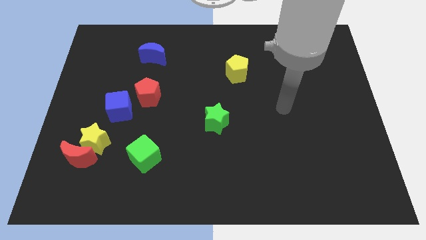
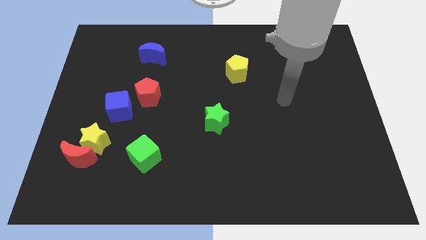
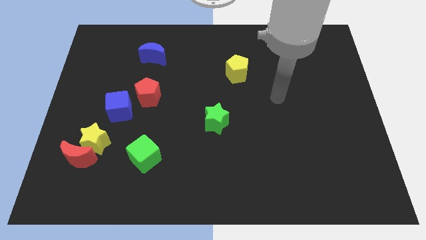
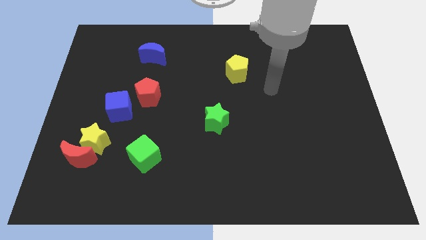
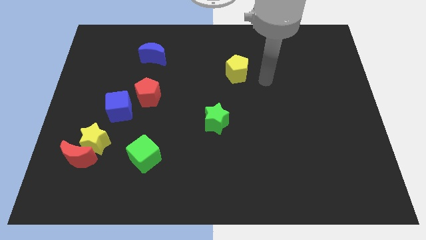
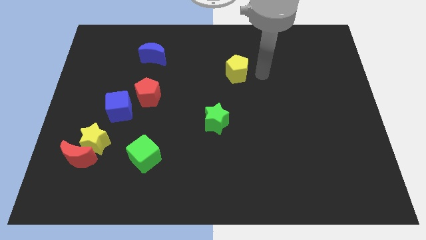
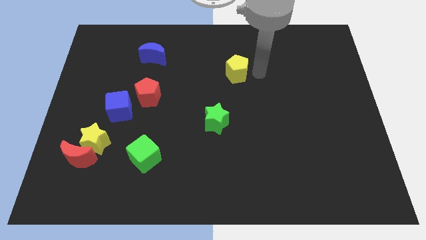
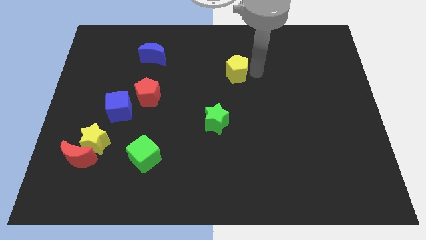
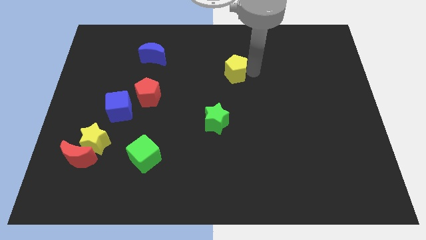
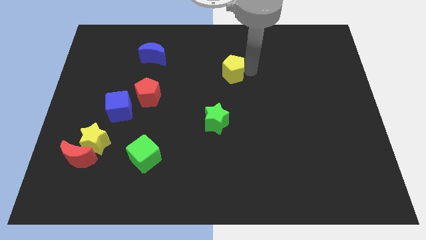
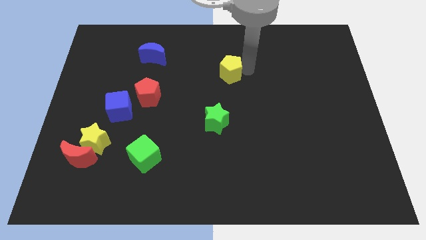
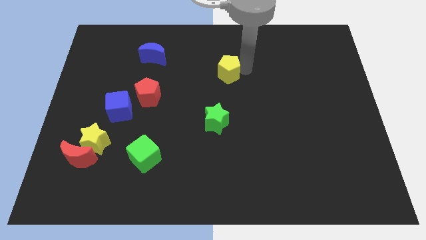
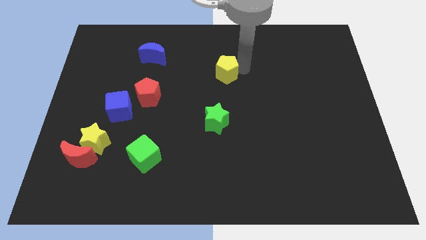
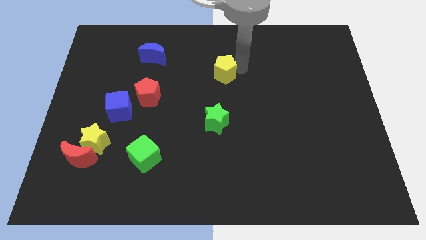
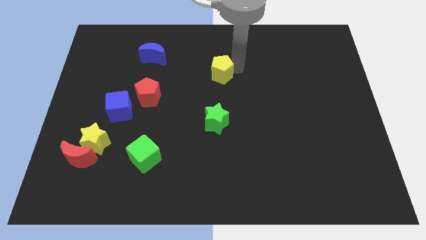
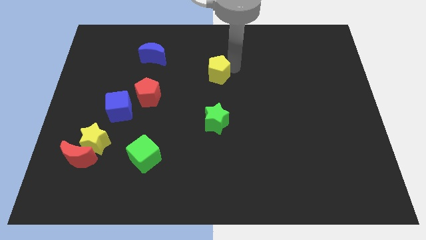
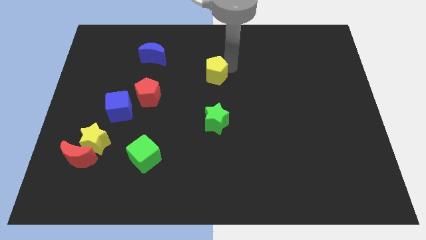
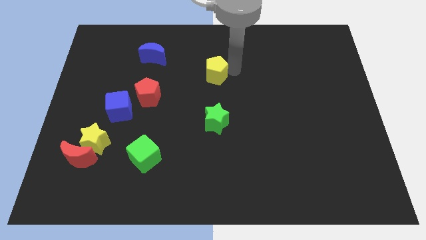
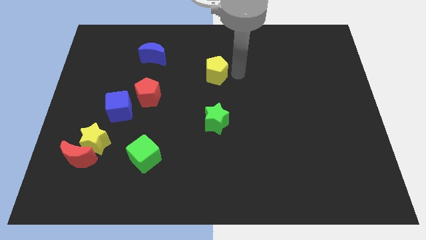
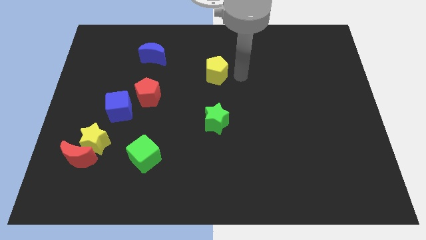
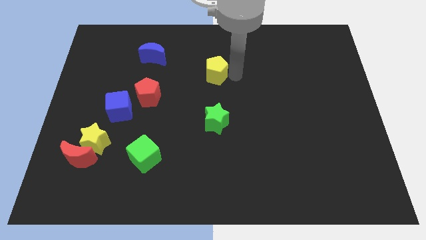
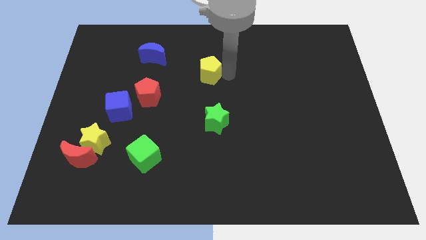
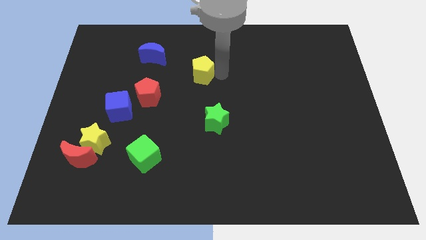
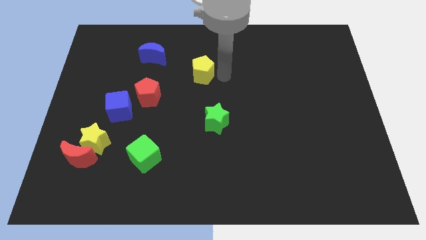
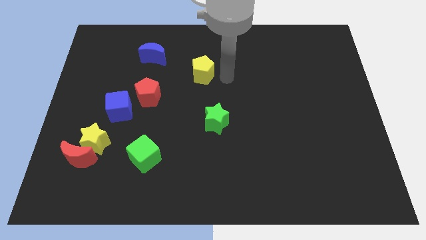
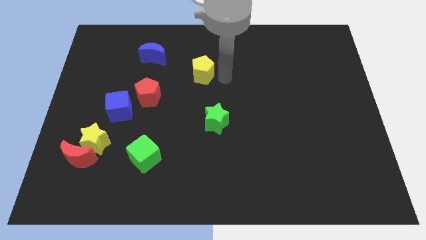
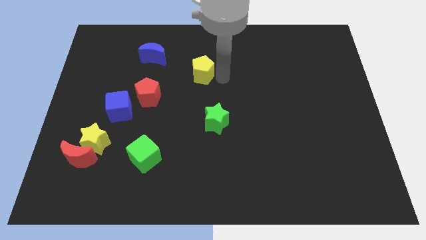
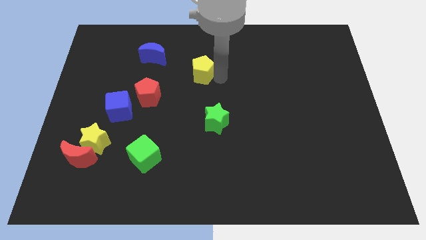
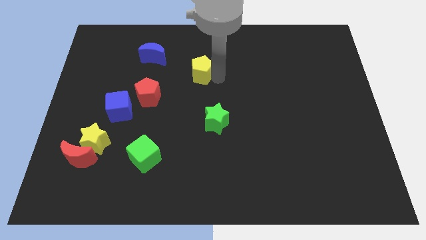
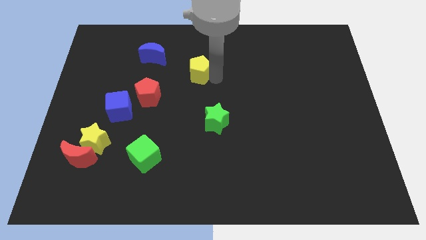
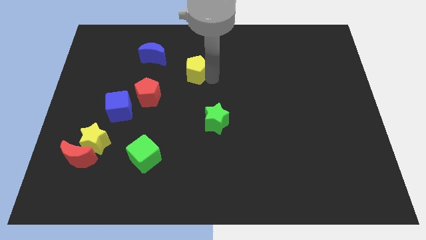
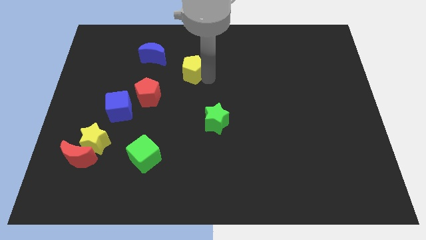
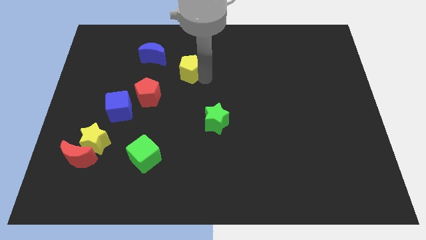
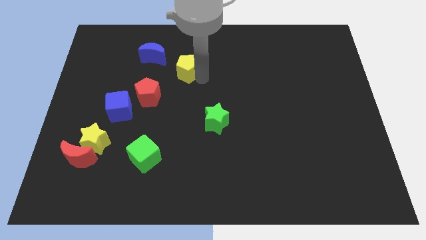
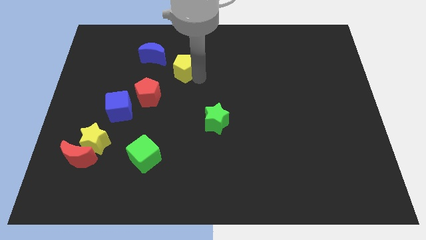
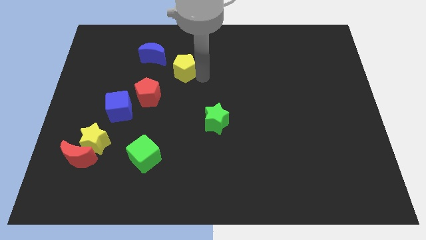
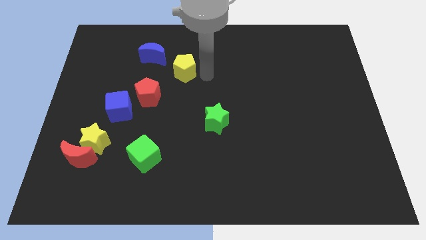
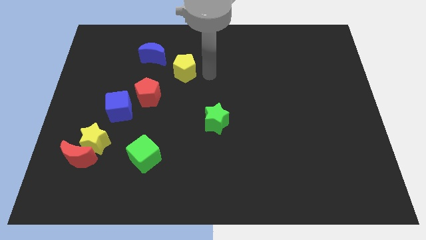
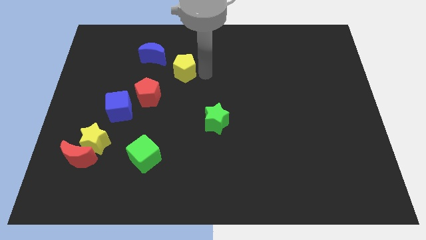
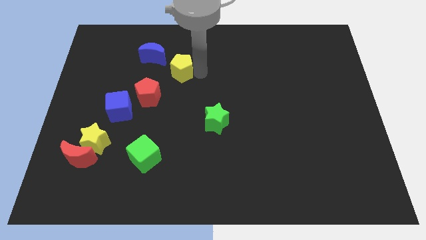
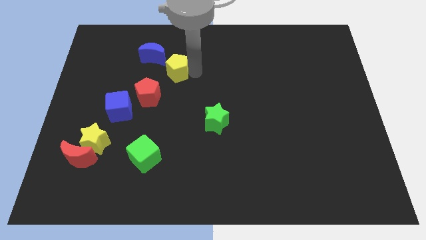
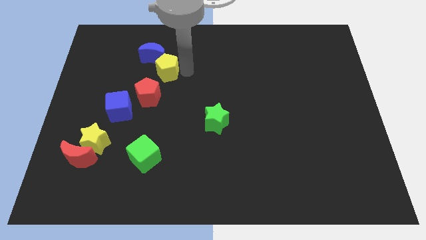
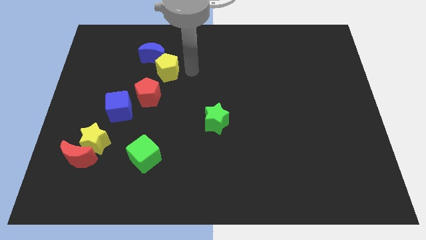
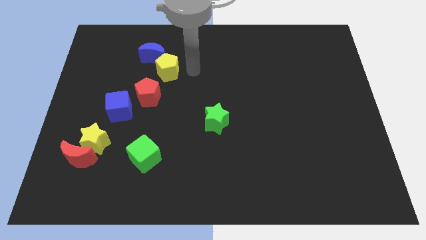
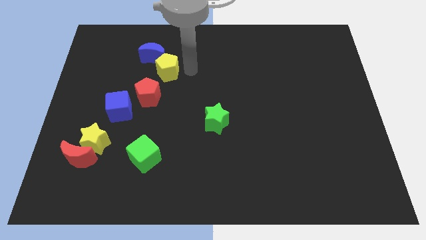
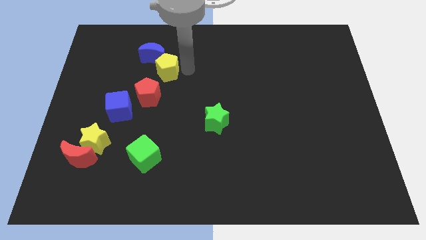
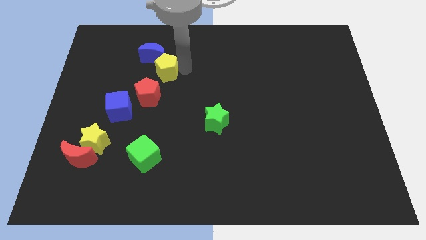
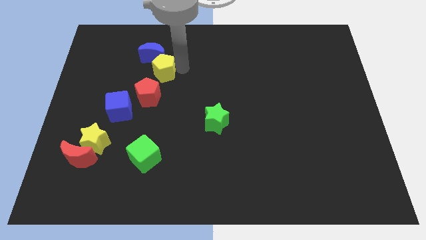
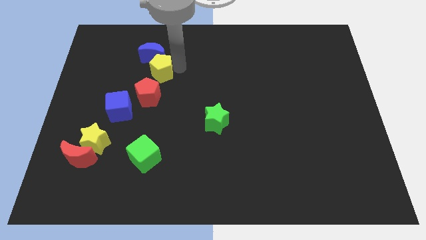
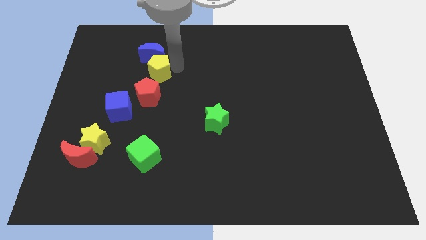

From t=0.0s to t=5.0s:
move the yellow pentagon to the left

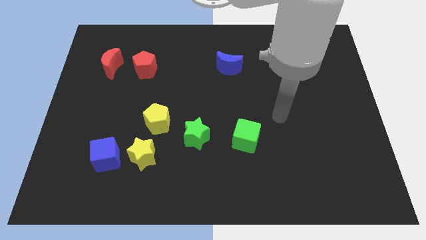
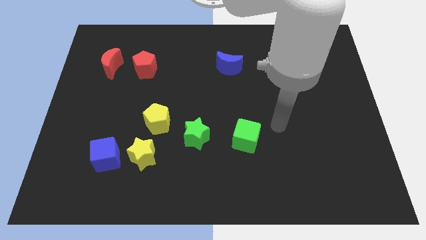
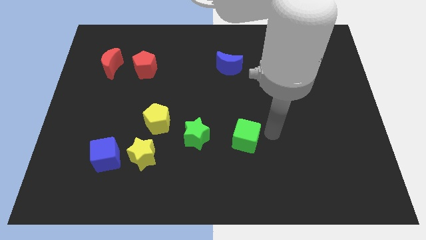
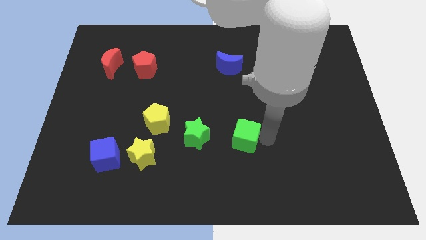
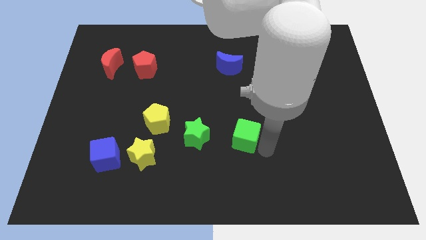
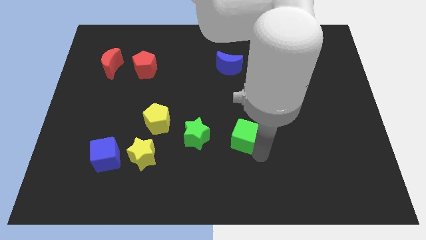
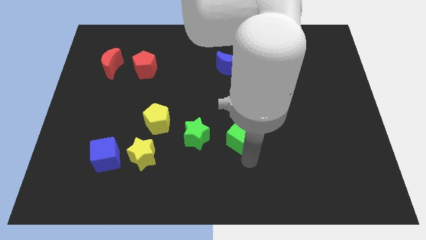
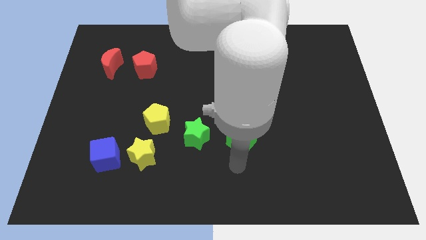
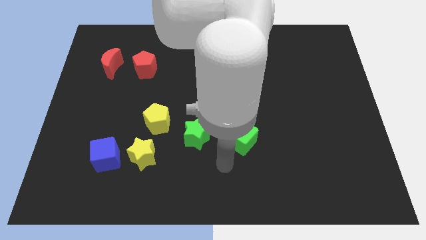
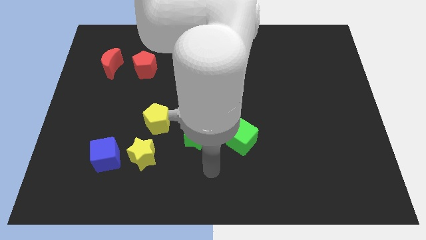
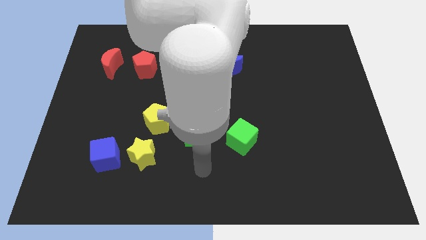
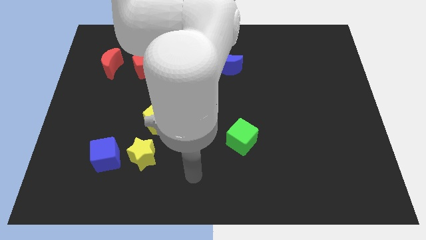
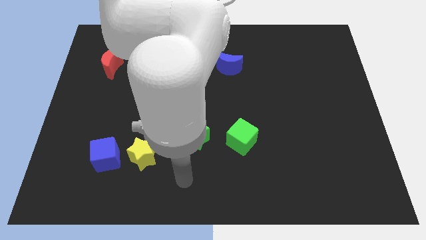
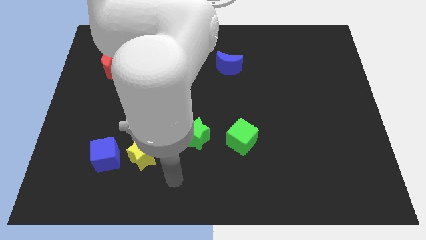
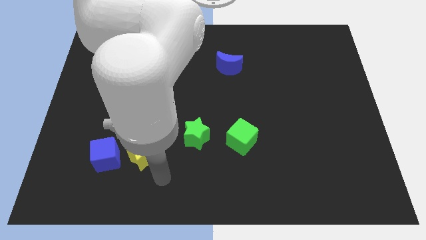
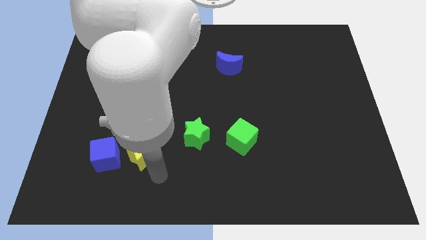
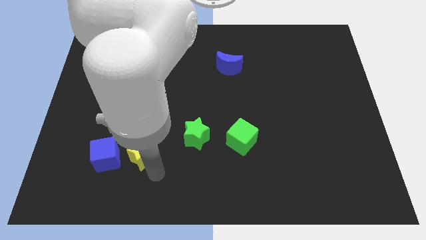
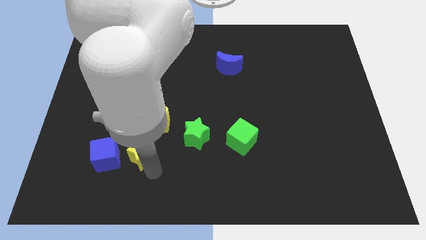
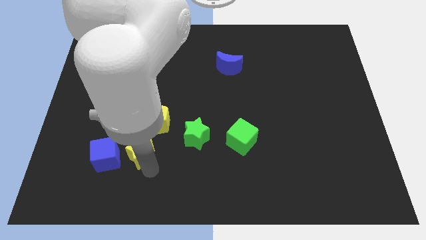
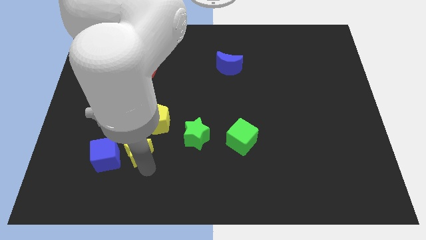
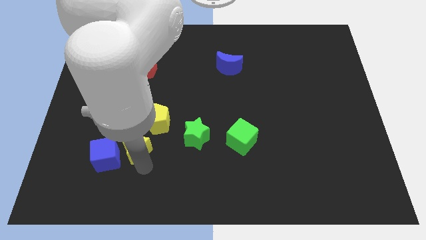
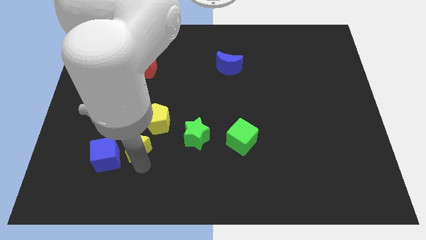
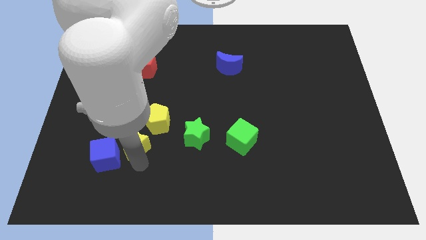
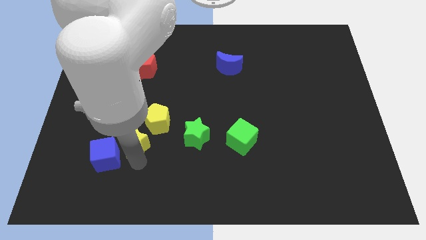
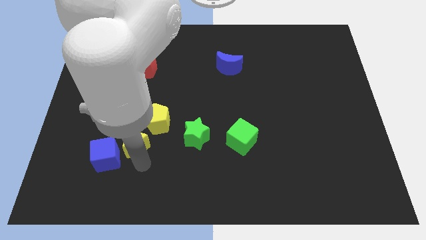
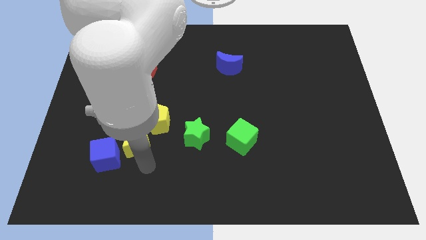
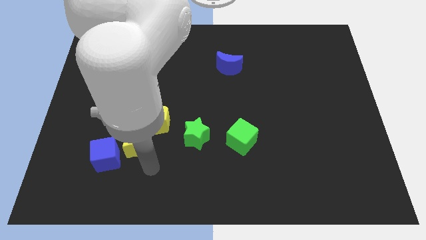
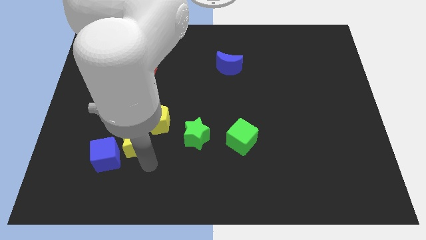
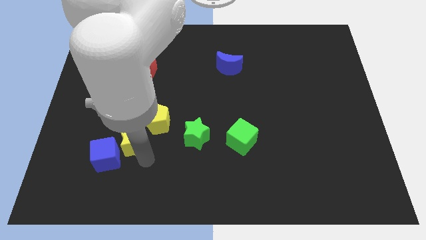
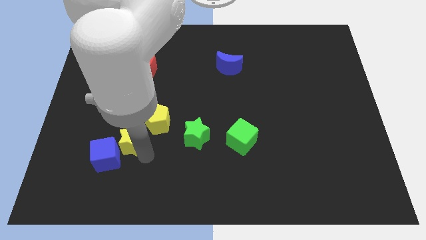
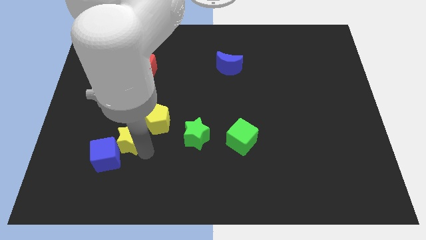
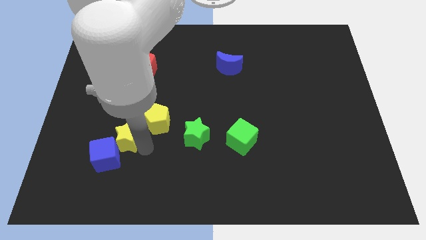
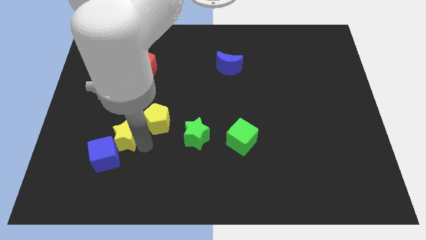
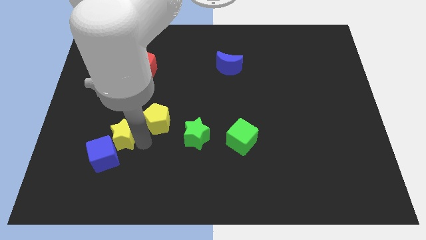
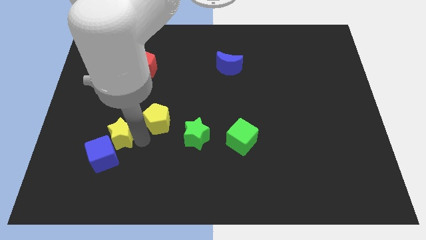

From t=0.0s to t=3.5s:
slightly slide the yellow star up and to the left diagonally
